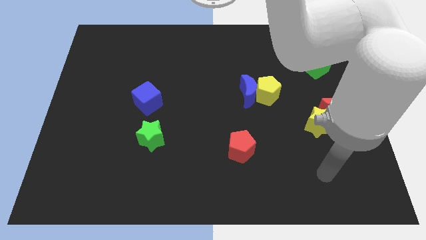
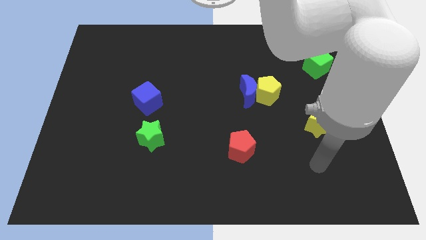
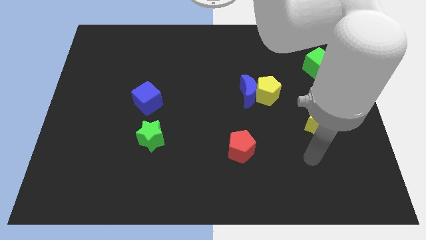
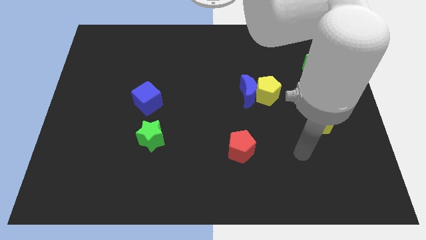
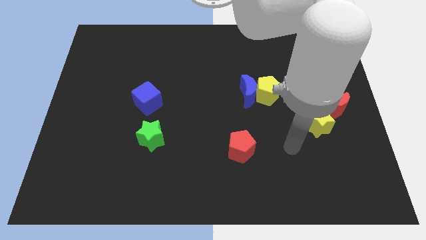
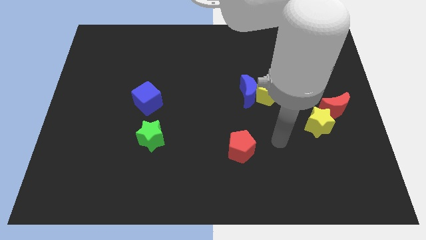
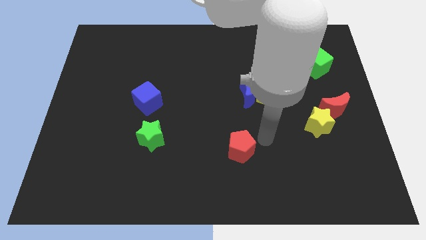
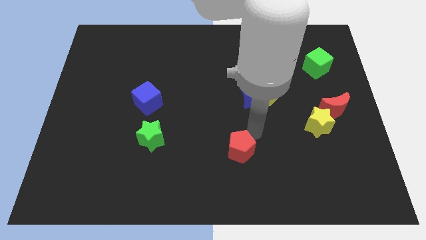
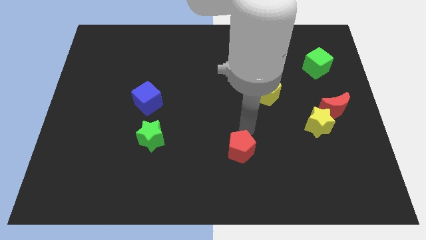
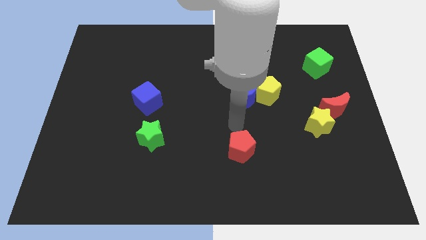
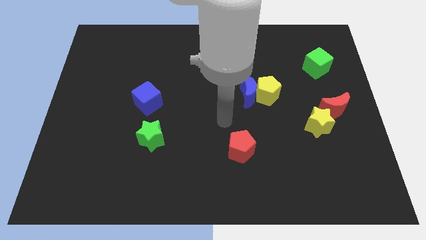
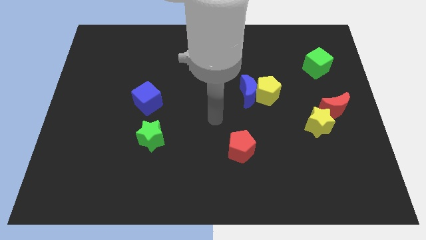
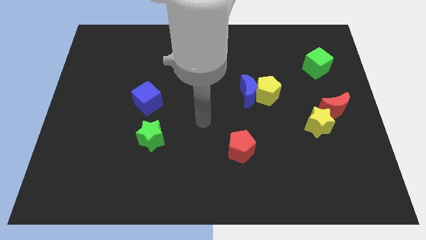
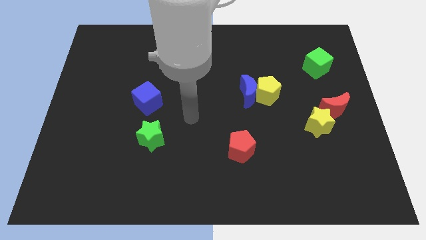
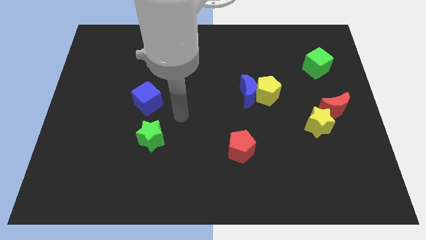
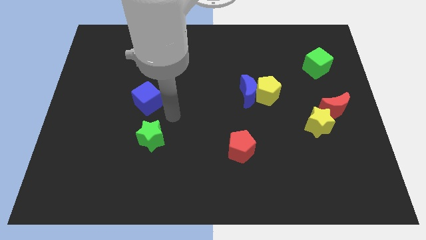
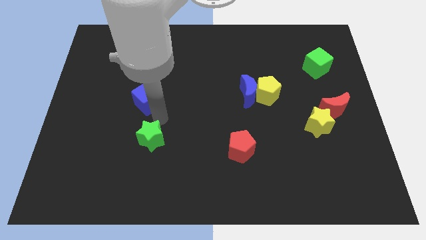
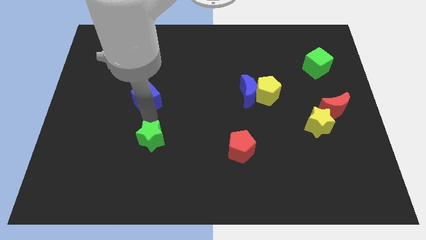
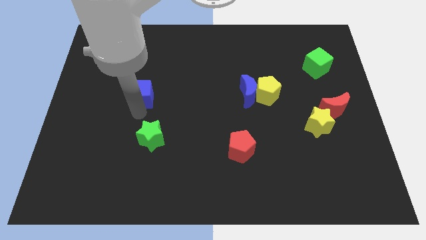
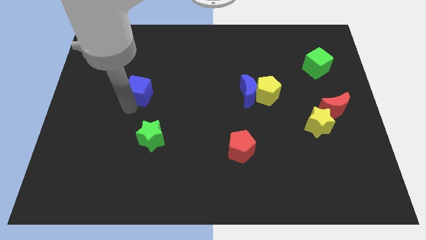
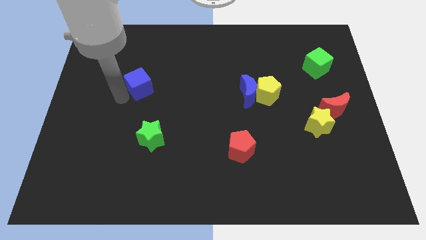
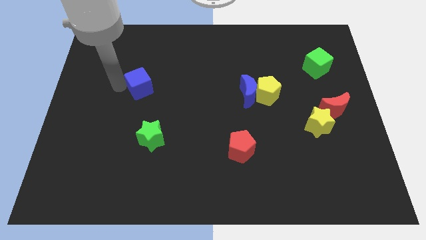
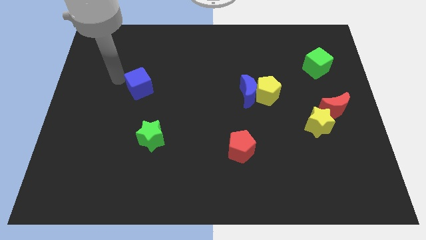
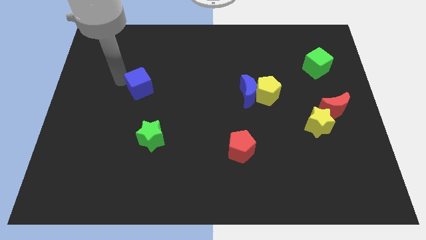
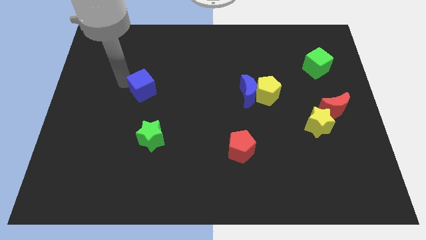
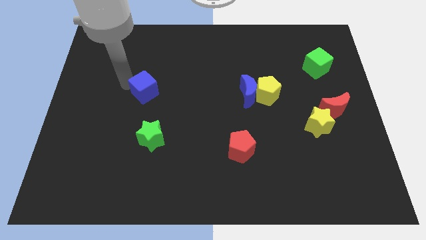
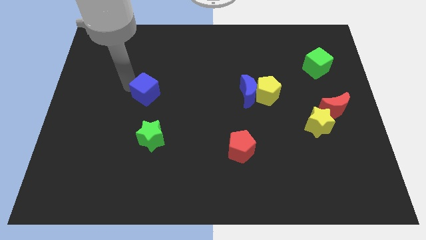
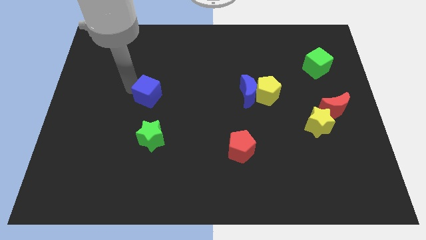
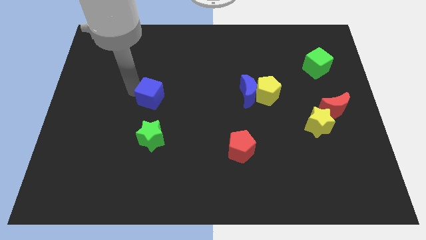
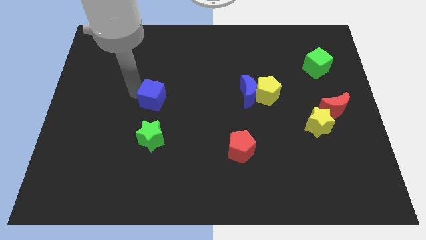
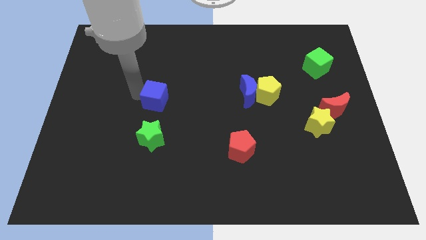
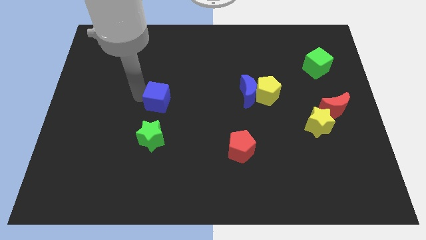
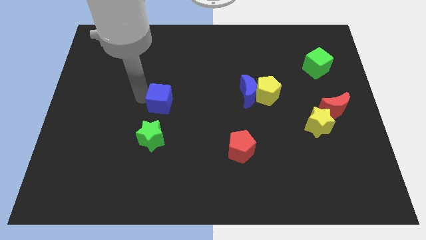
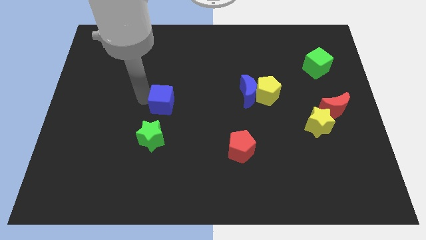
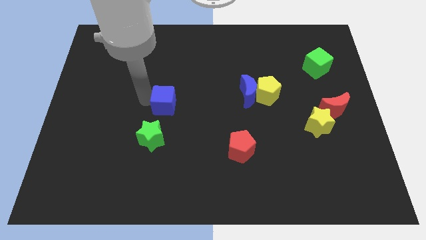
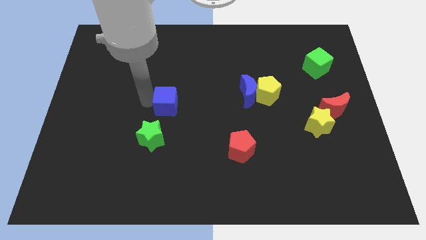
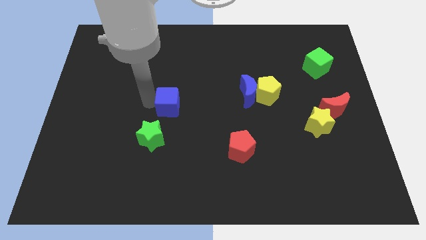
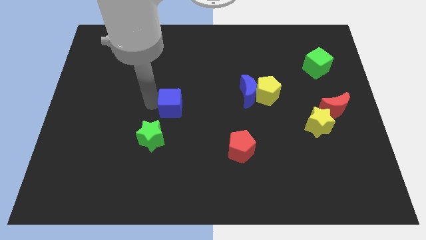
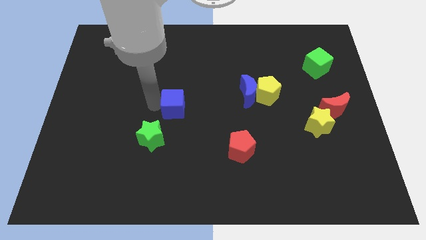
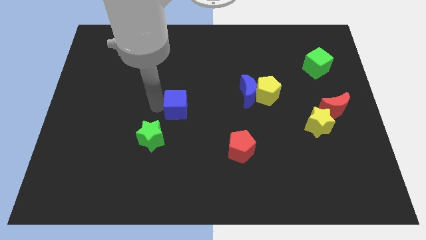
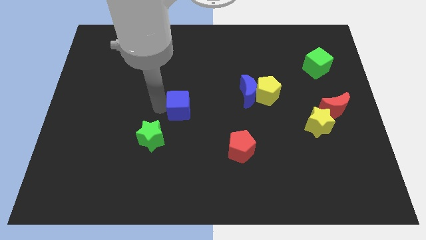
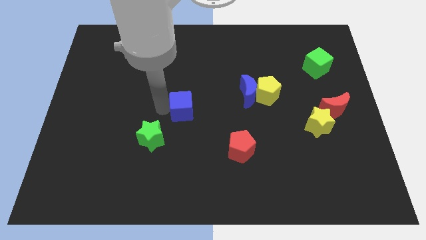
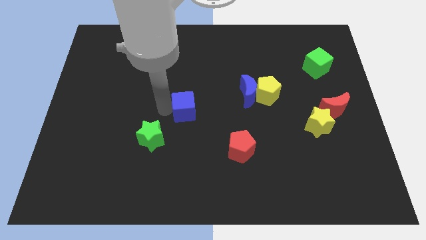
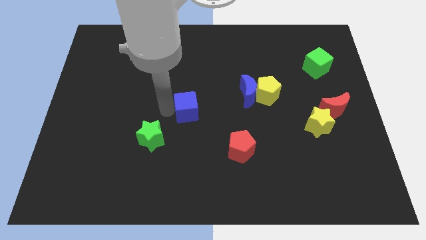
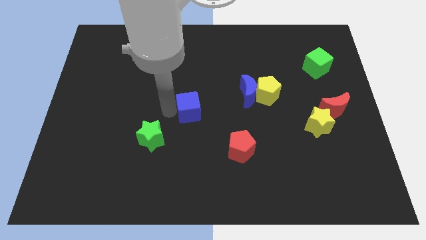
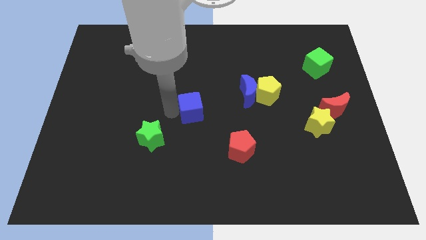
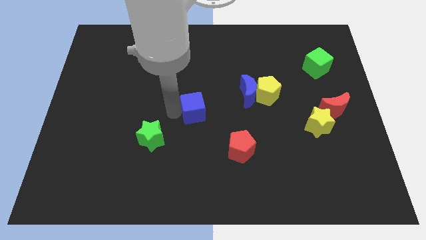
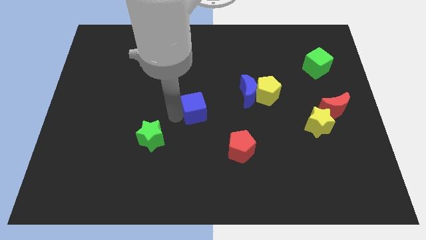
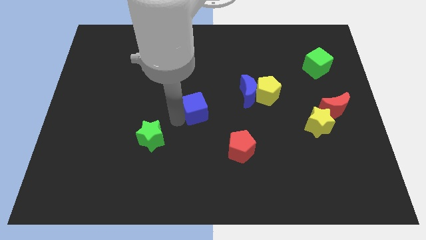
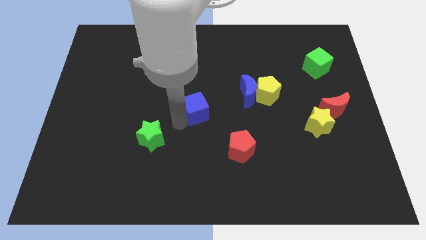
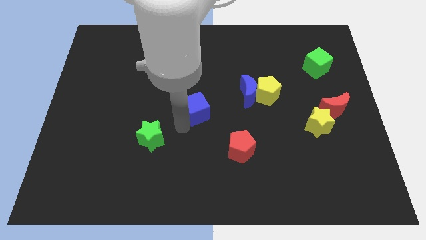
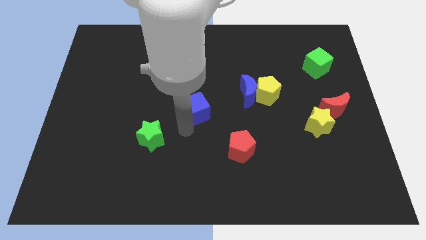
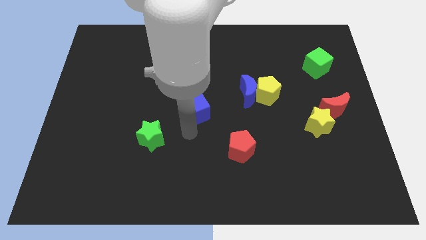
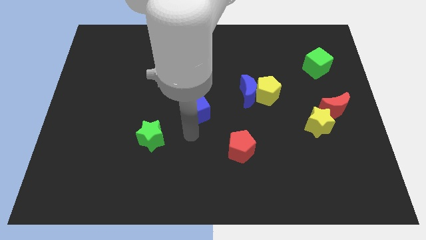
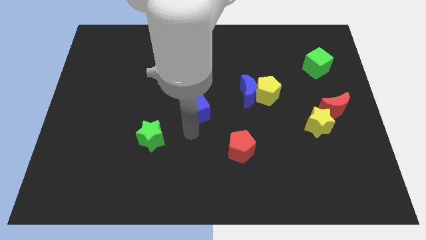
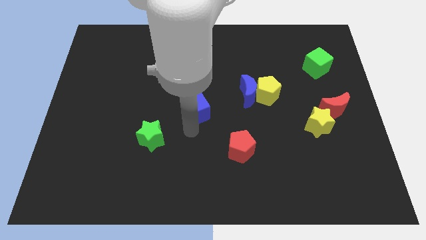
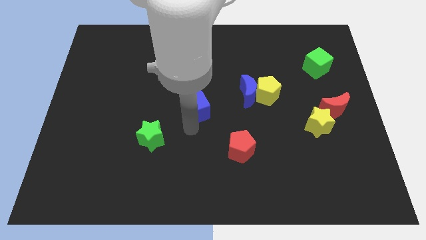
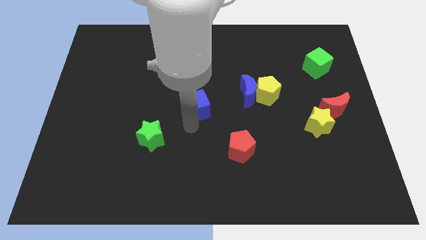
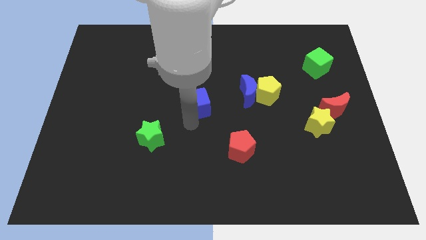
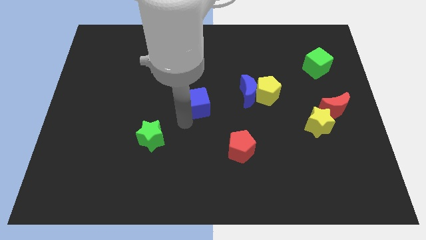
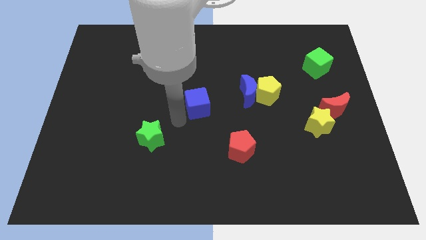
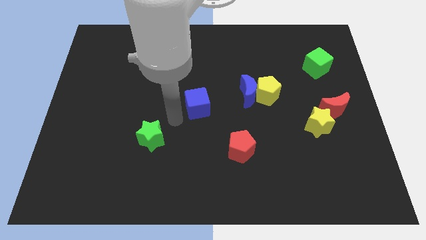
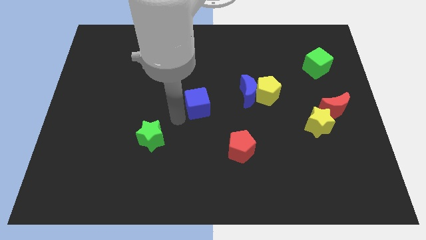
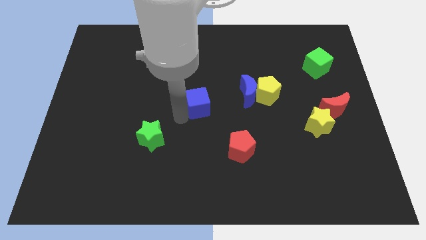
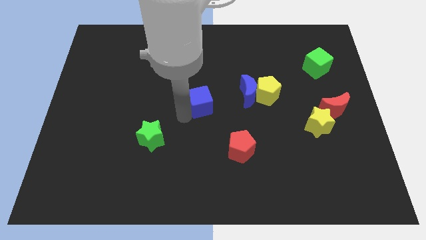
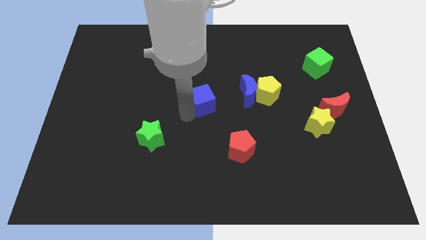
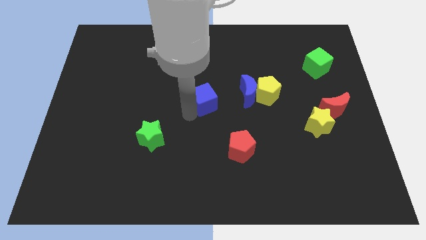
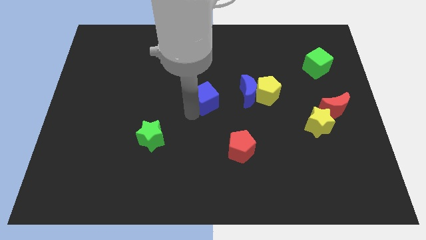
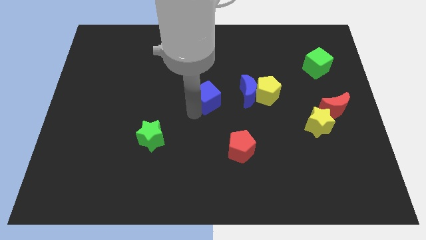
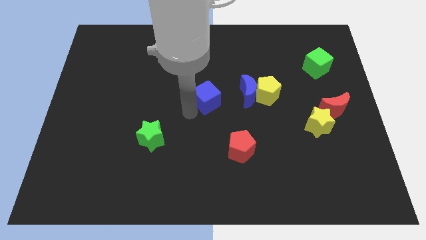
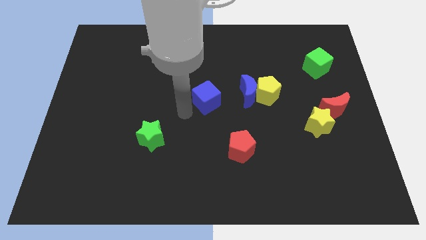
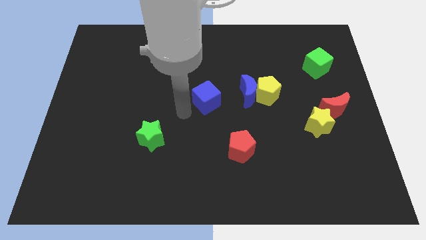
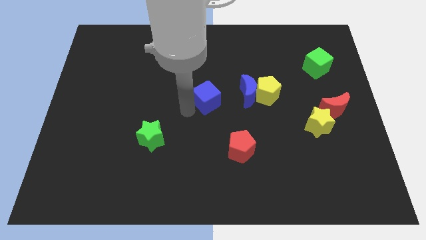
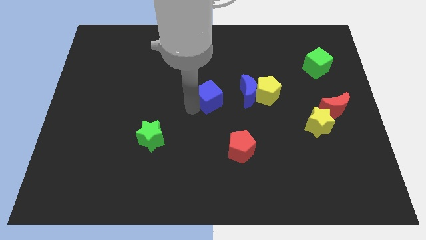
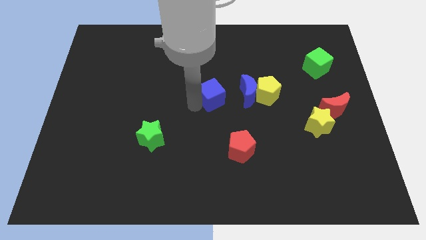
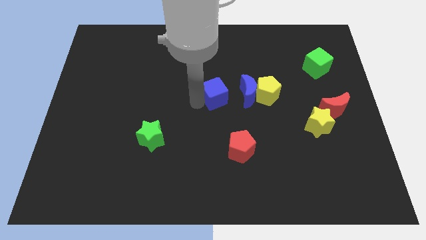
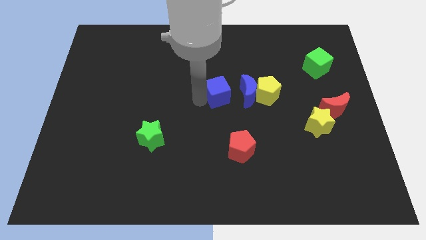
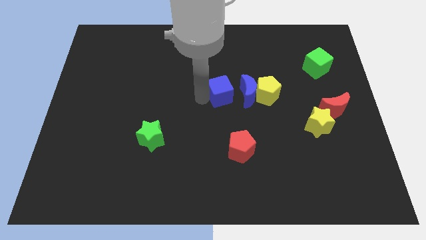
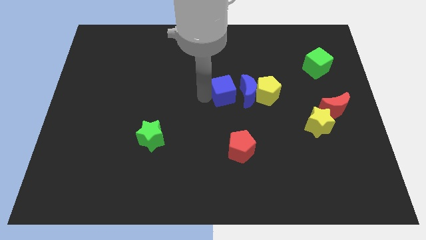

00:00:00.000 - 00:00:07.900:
push the blue cube close to the blue moon
